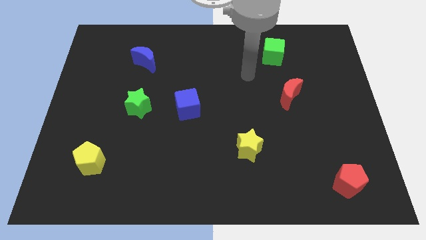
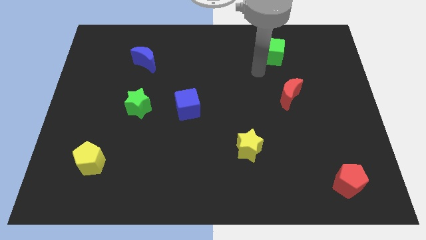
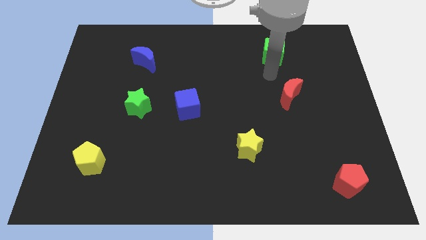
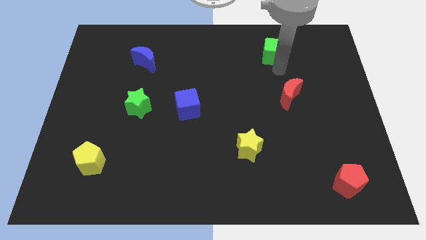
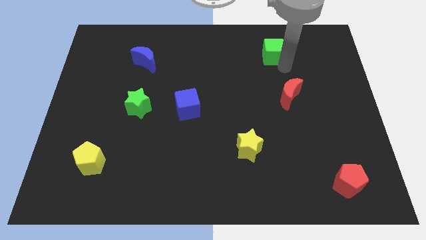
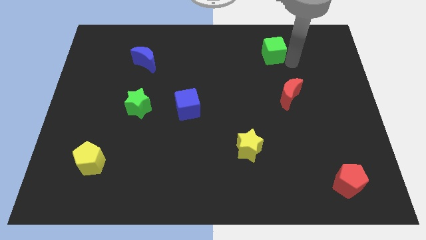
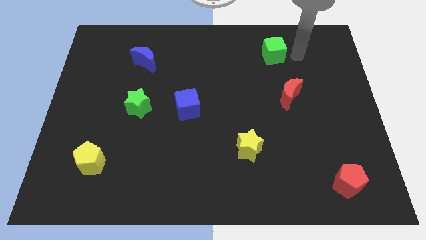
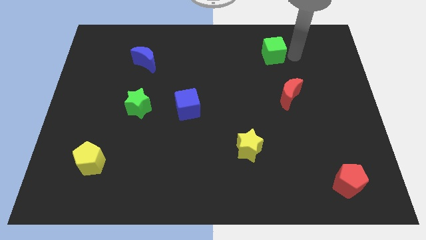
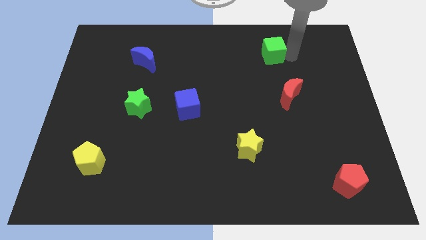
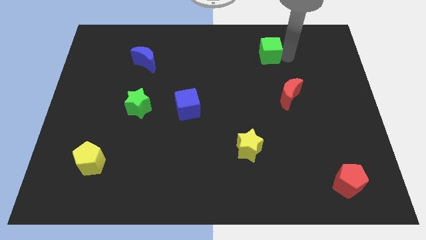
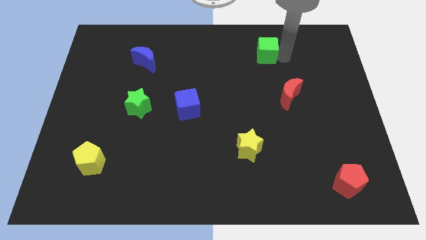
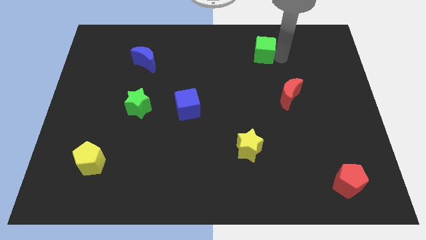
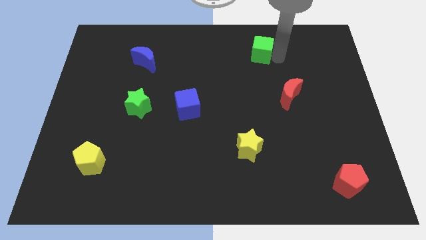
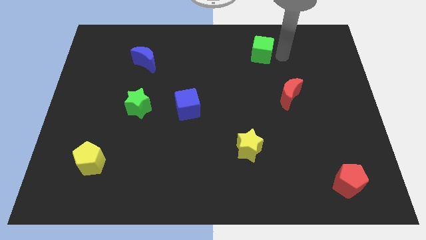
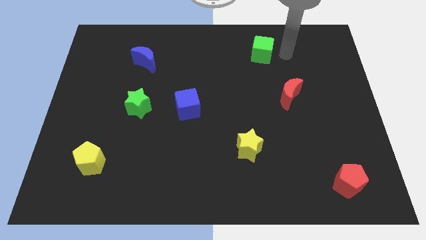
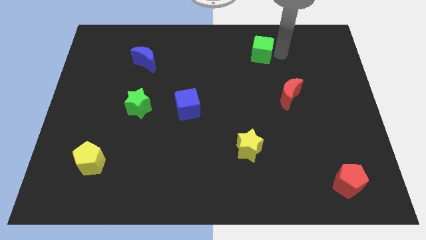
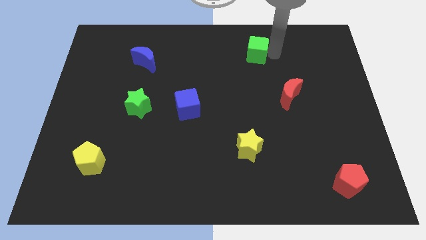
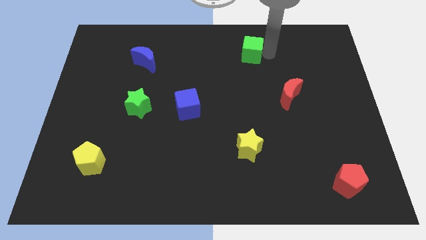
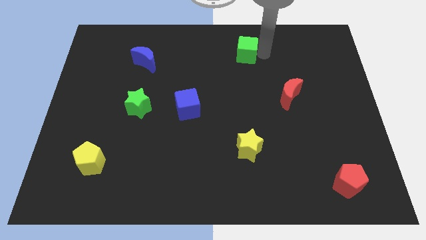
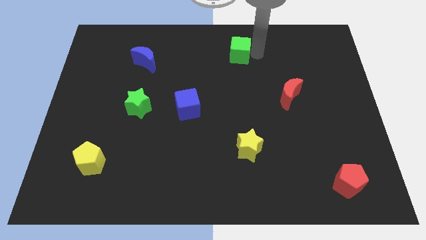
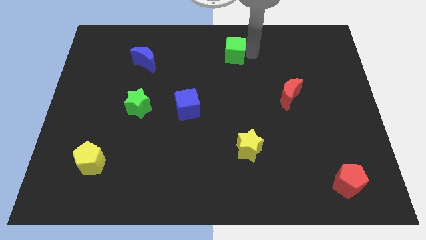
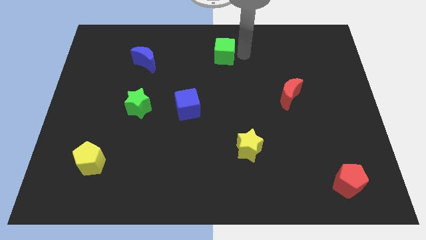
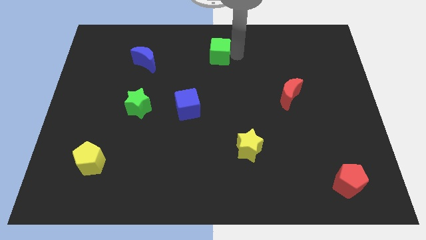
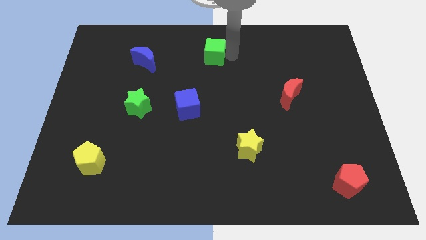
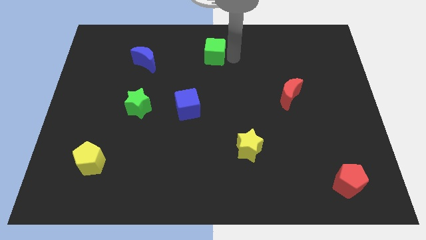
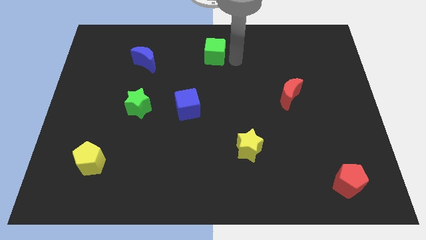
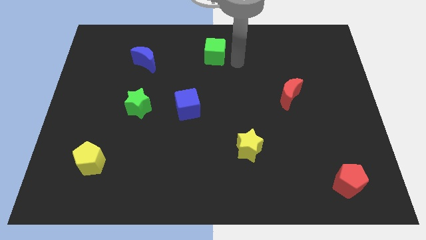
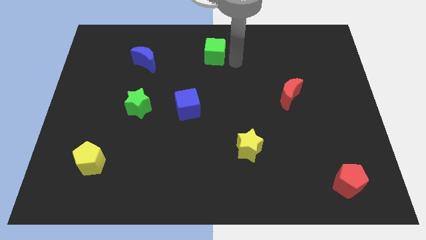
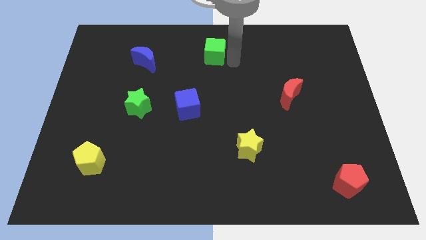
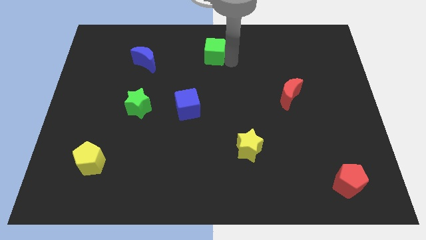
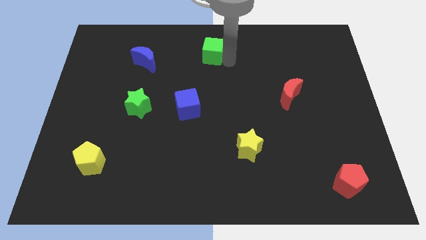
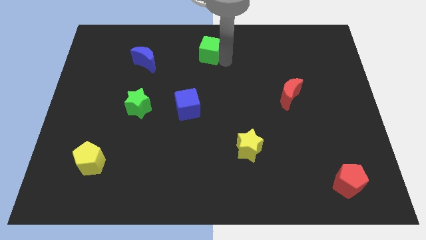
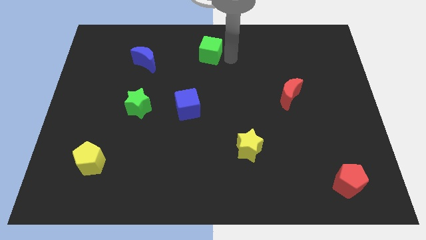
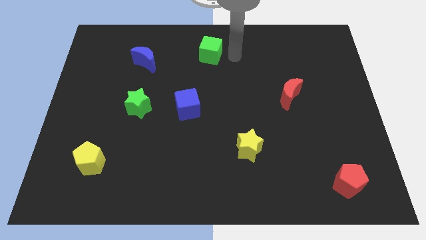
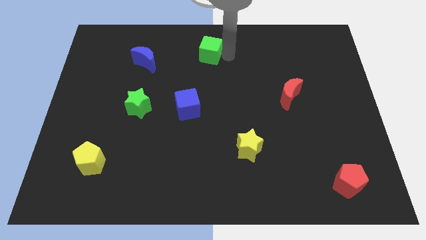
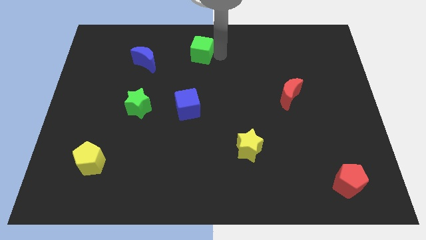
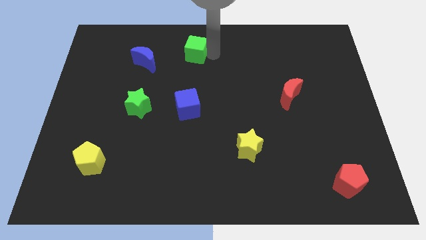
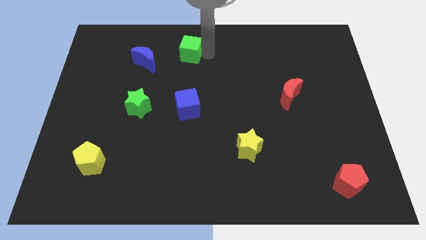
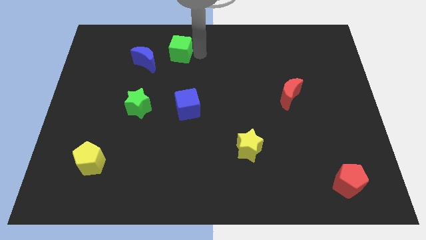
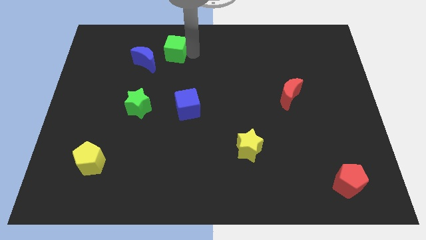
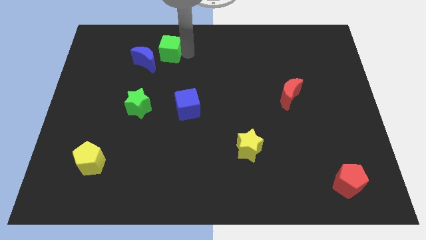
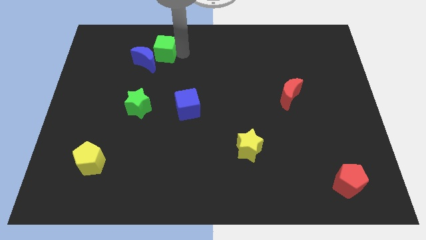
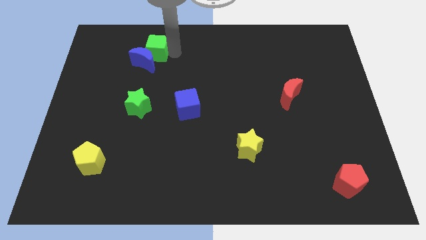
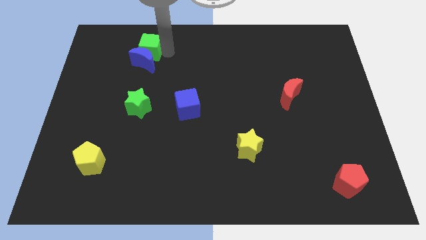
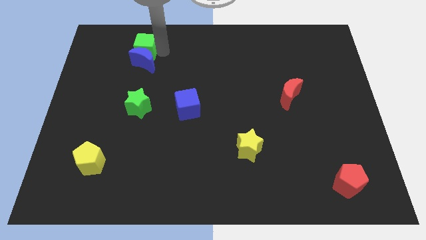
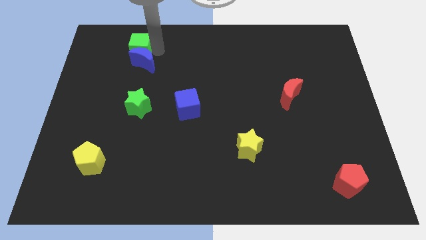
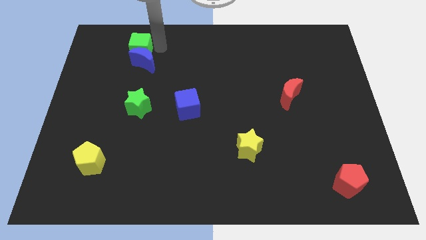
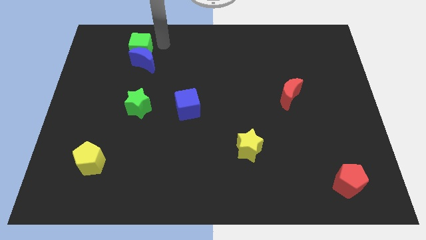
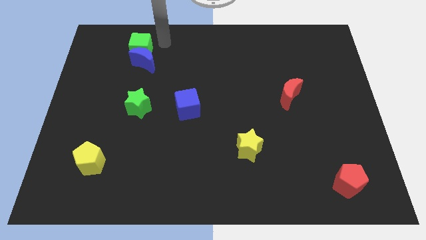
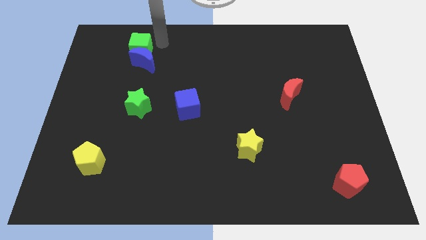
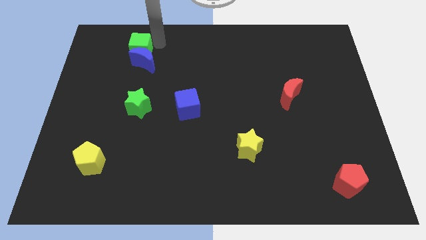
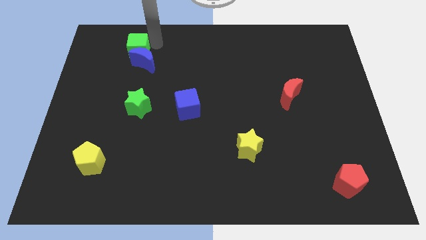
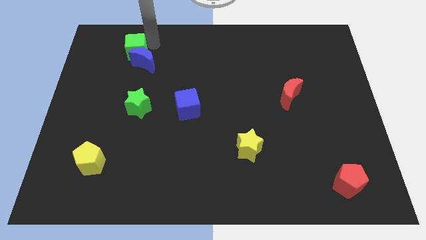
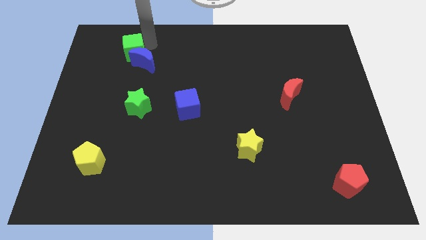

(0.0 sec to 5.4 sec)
push the green cube left of the blue moon

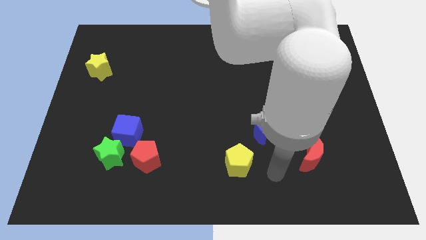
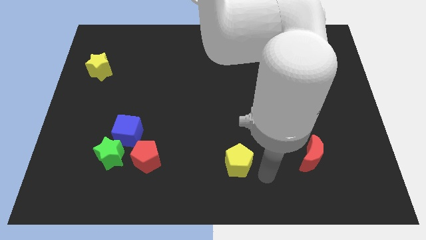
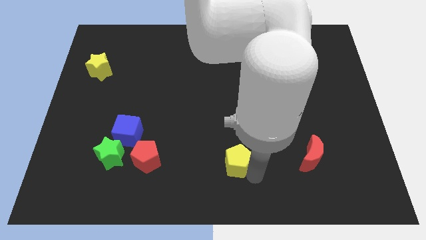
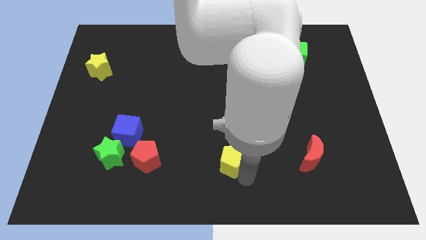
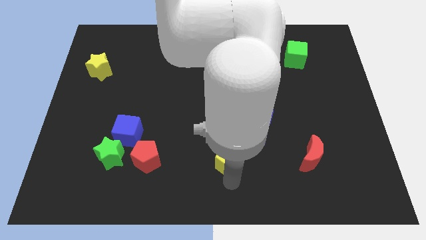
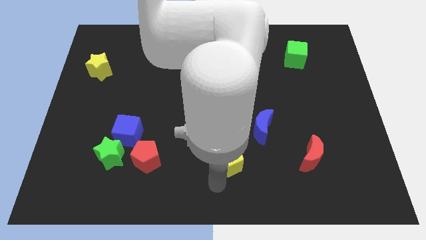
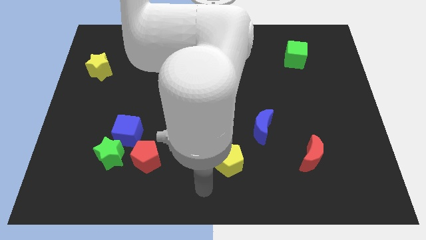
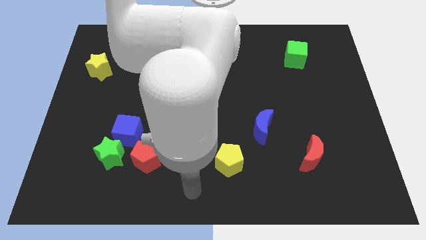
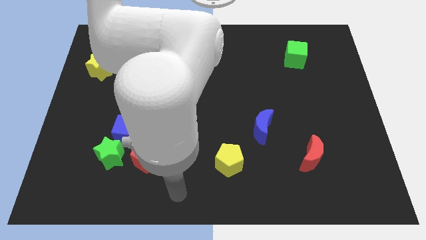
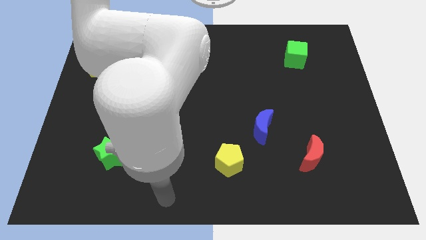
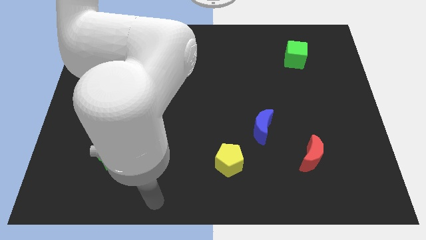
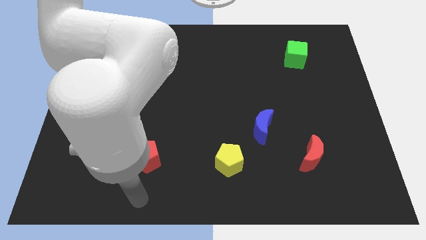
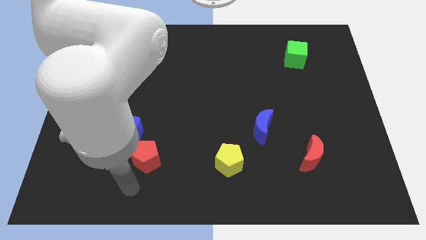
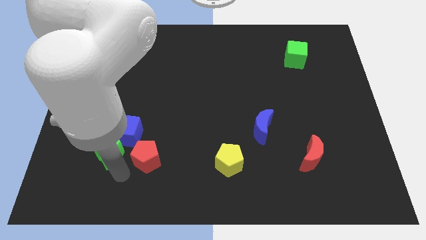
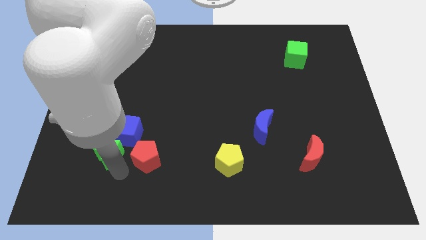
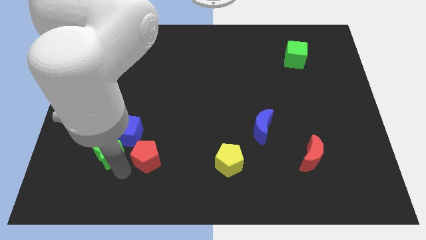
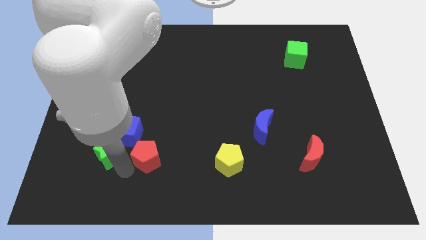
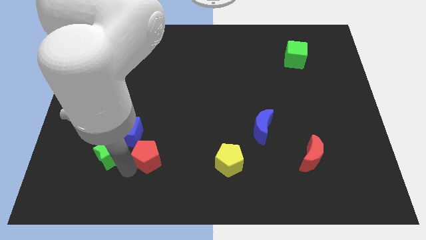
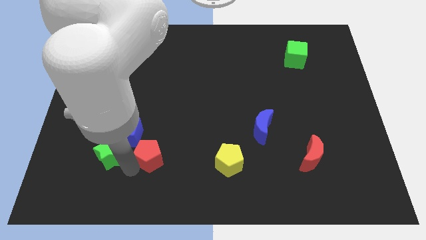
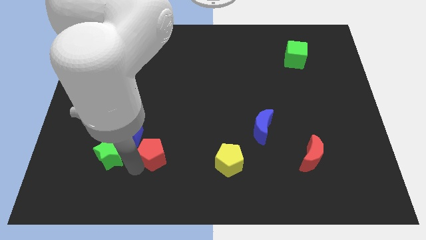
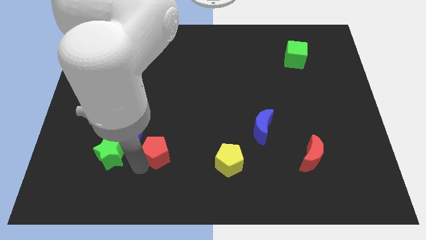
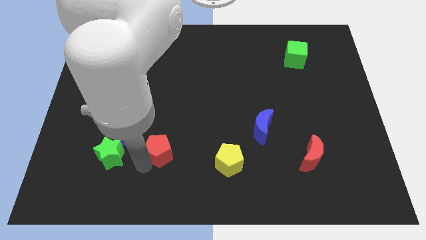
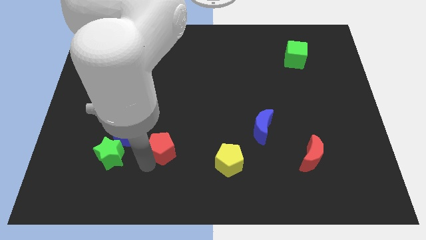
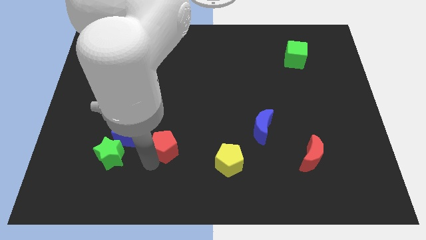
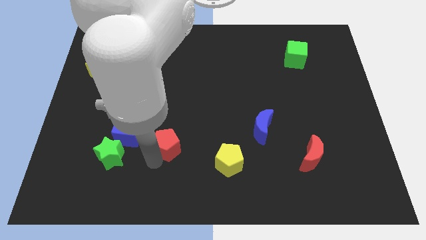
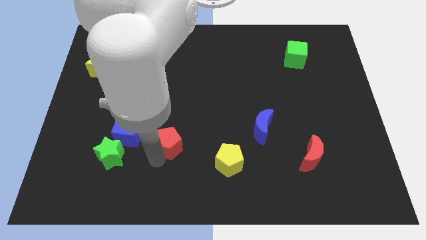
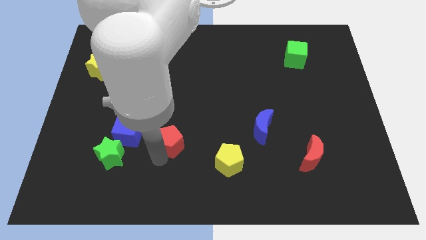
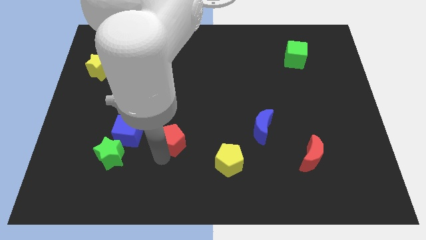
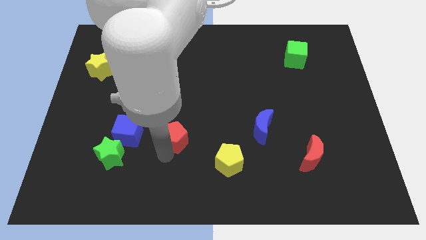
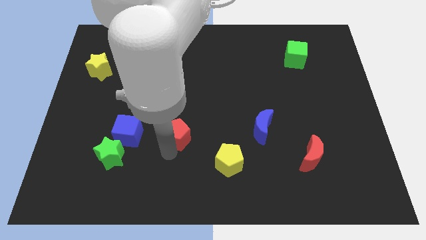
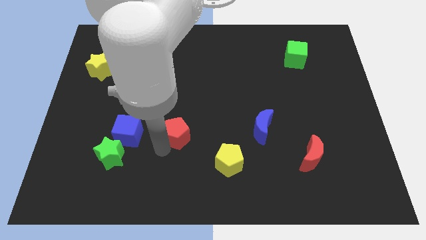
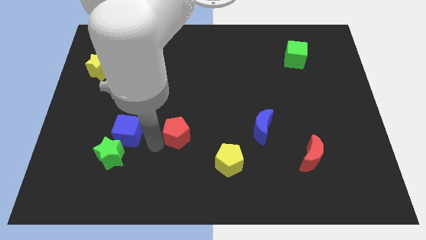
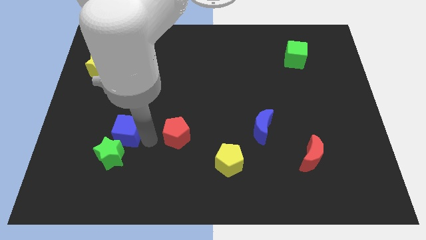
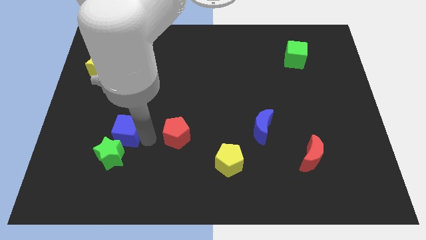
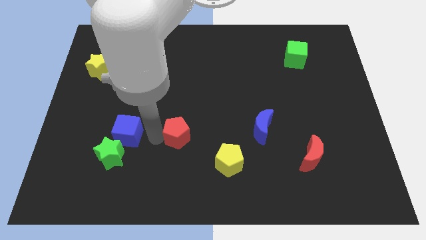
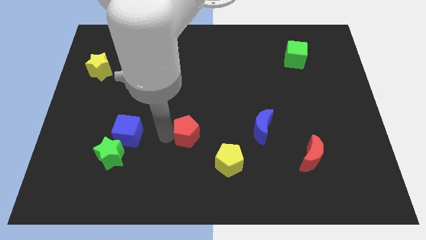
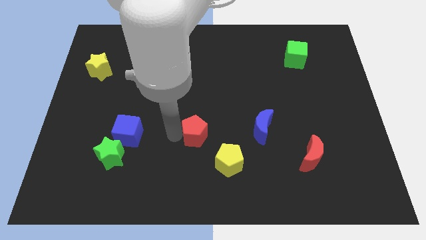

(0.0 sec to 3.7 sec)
push the red pentagon to the left of the blue moon
